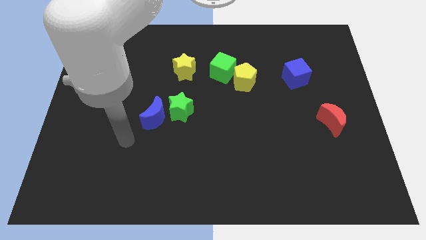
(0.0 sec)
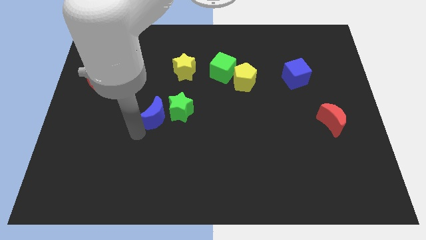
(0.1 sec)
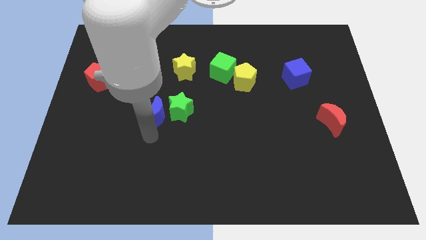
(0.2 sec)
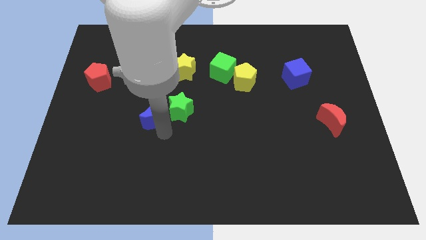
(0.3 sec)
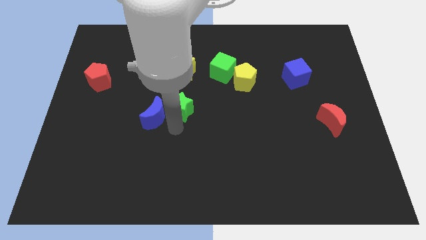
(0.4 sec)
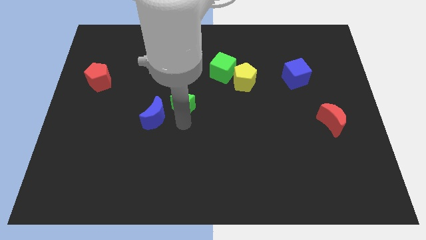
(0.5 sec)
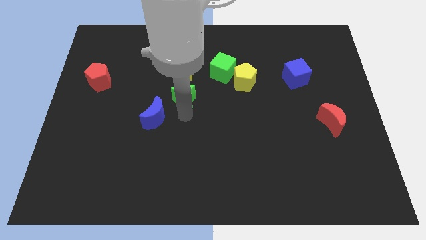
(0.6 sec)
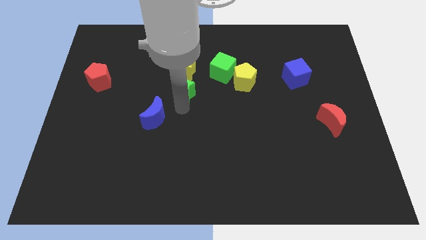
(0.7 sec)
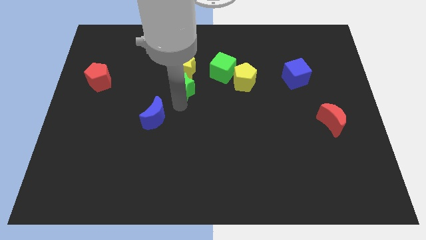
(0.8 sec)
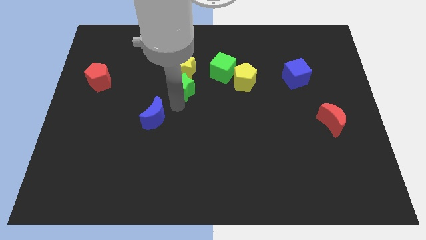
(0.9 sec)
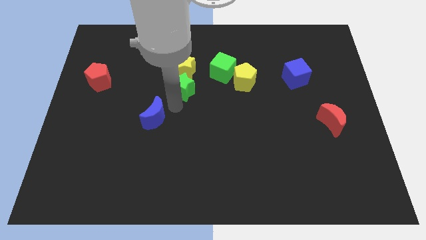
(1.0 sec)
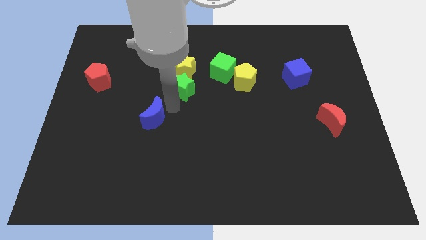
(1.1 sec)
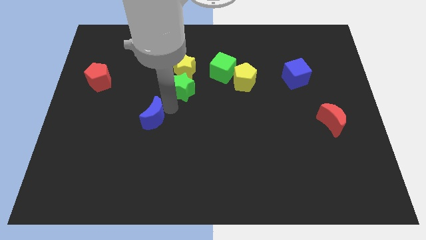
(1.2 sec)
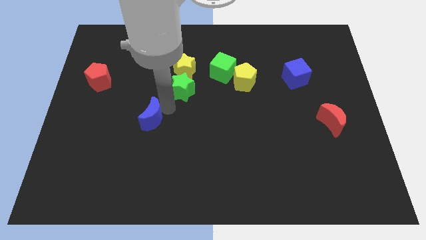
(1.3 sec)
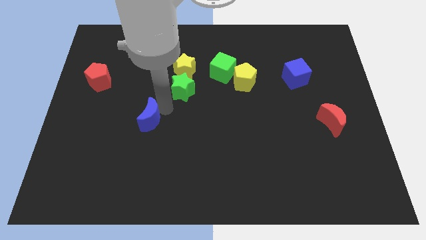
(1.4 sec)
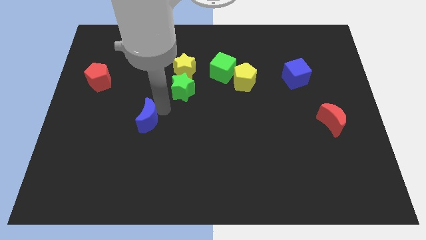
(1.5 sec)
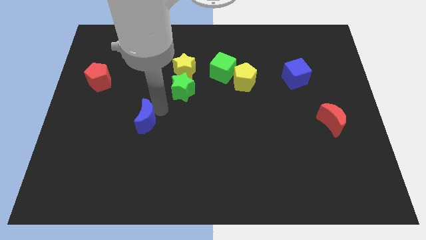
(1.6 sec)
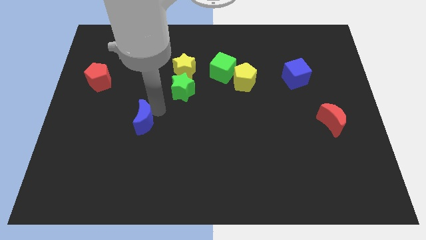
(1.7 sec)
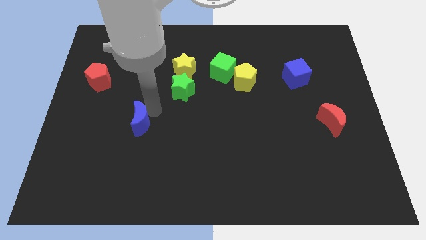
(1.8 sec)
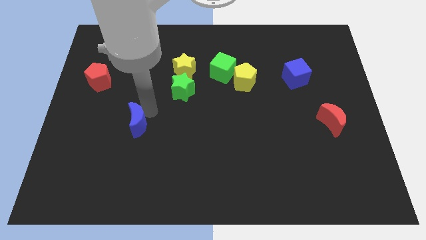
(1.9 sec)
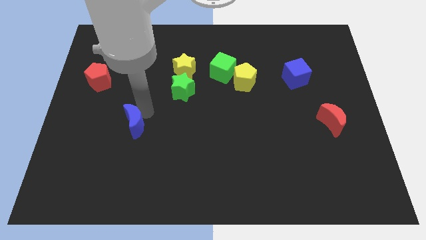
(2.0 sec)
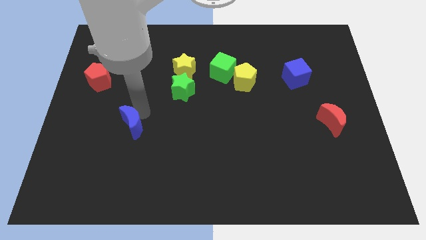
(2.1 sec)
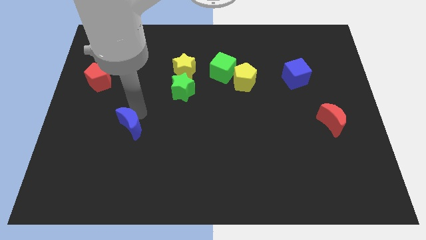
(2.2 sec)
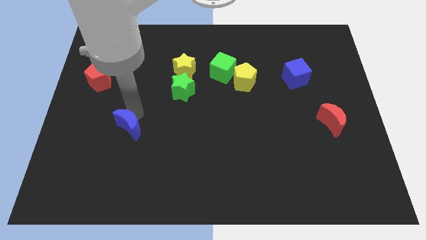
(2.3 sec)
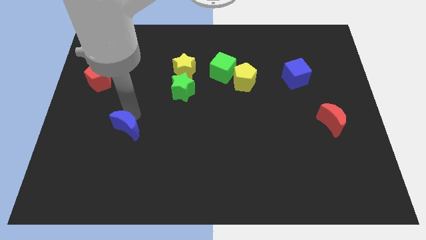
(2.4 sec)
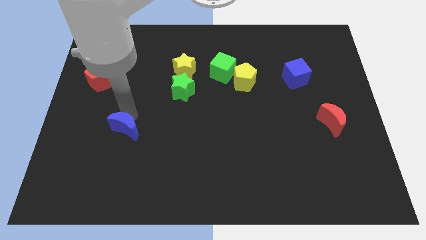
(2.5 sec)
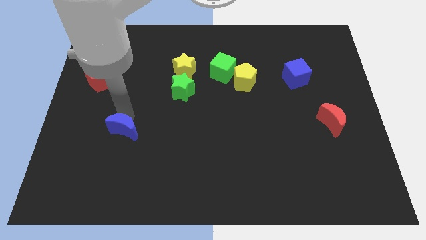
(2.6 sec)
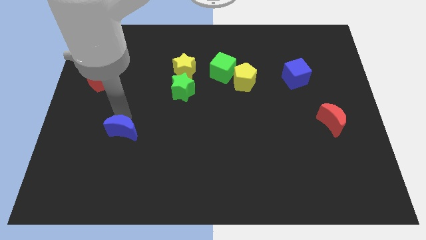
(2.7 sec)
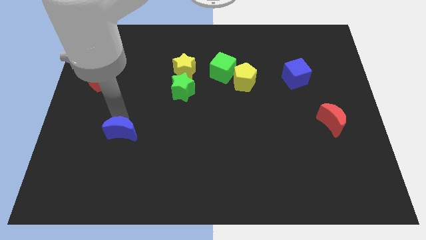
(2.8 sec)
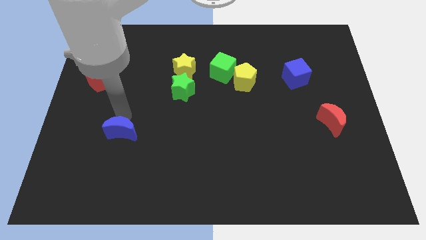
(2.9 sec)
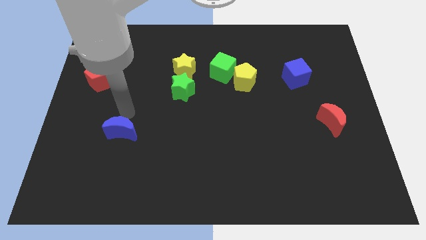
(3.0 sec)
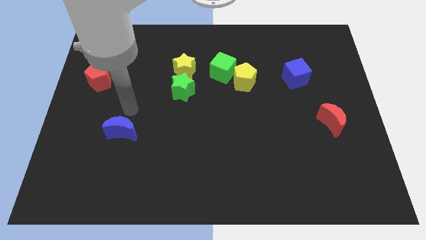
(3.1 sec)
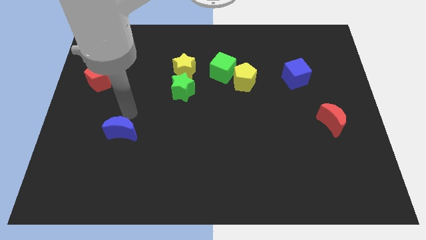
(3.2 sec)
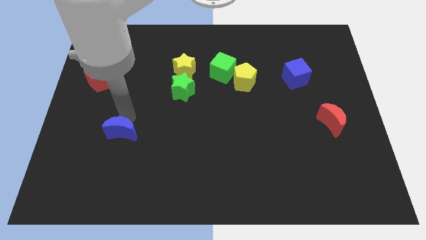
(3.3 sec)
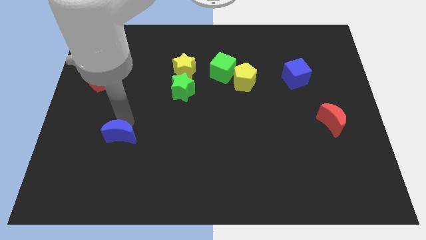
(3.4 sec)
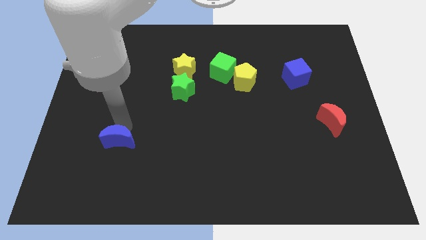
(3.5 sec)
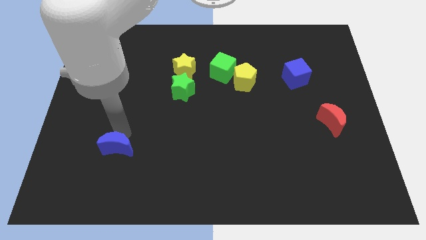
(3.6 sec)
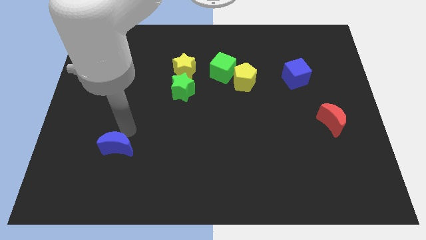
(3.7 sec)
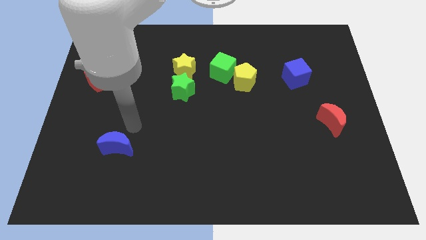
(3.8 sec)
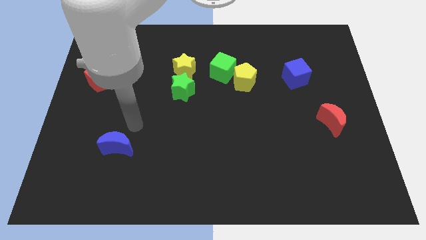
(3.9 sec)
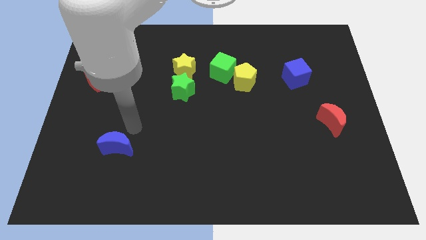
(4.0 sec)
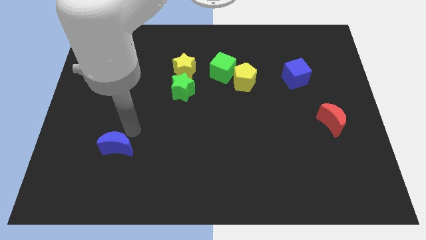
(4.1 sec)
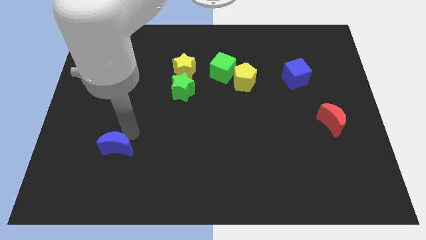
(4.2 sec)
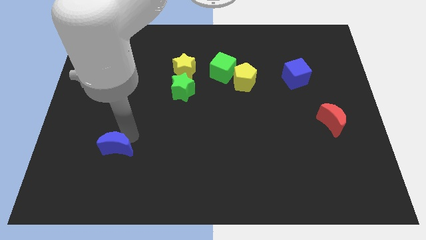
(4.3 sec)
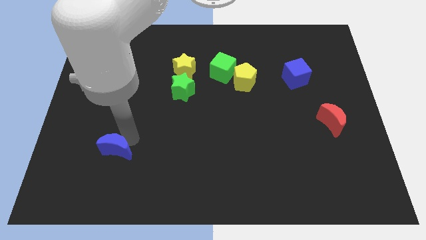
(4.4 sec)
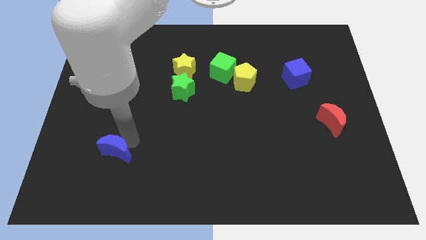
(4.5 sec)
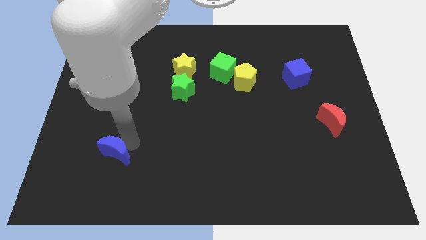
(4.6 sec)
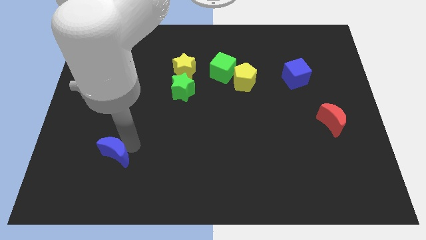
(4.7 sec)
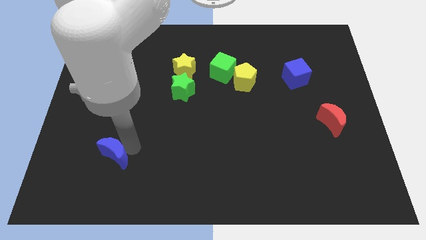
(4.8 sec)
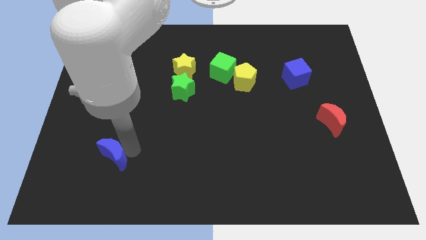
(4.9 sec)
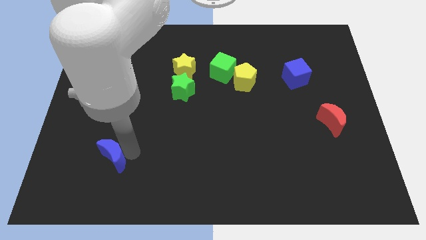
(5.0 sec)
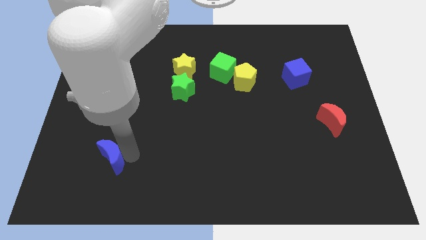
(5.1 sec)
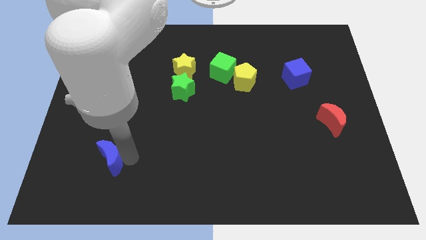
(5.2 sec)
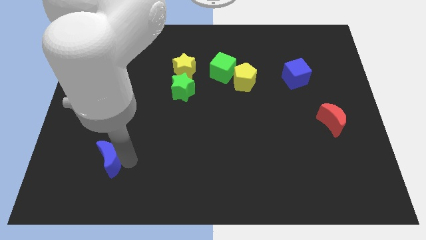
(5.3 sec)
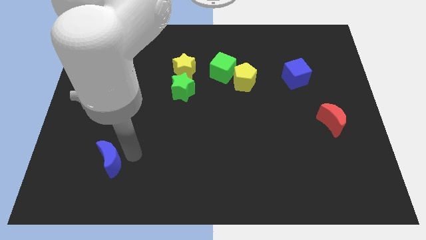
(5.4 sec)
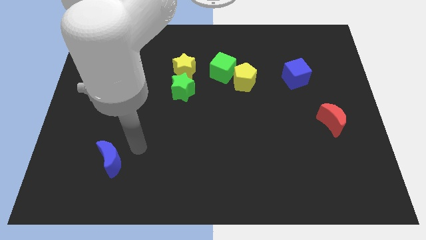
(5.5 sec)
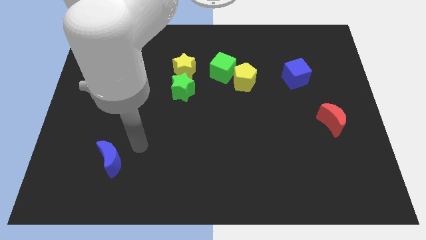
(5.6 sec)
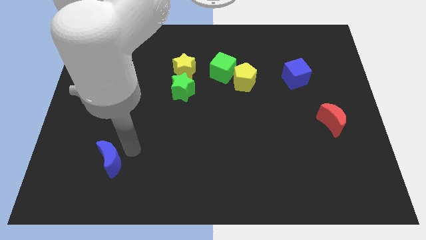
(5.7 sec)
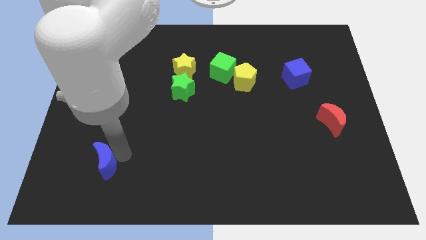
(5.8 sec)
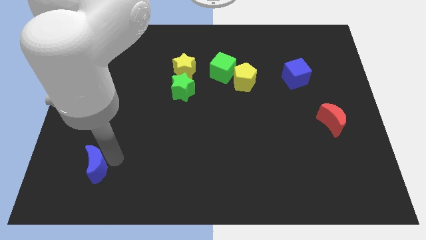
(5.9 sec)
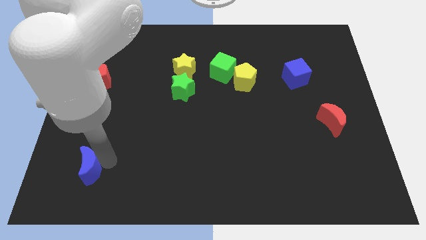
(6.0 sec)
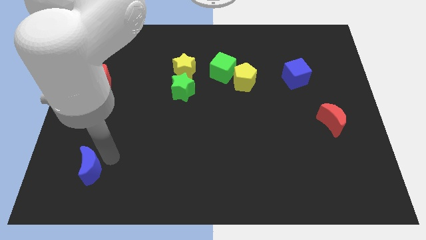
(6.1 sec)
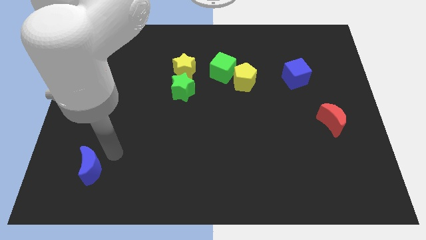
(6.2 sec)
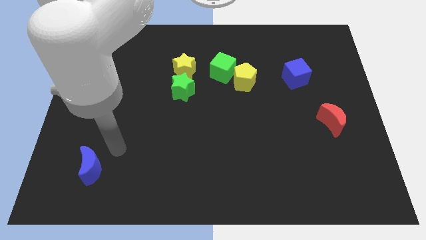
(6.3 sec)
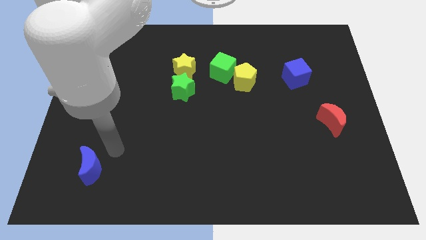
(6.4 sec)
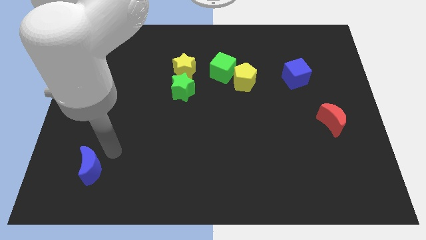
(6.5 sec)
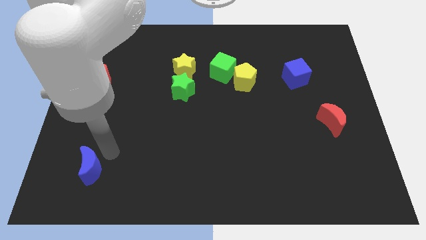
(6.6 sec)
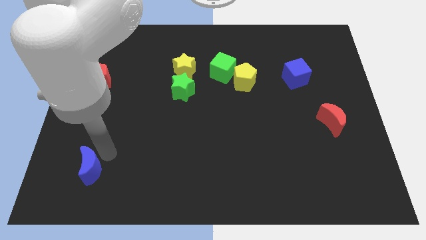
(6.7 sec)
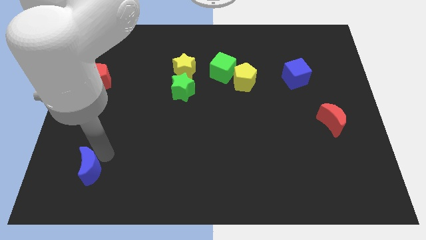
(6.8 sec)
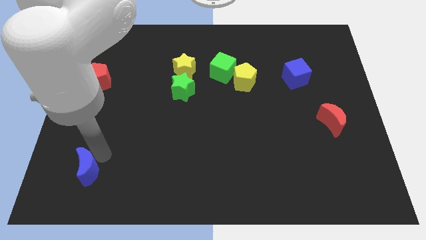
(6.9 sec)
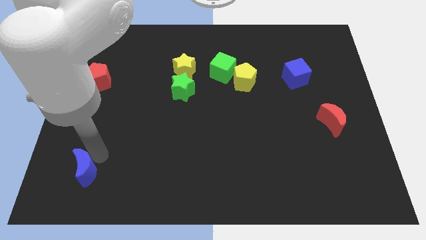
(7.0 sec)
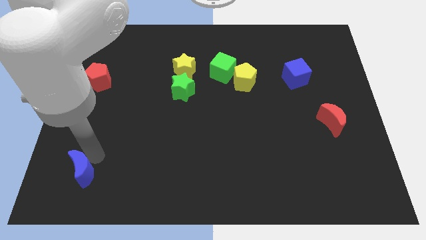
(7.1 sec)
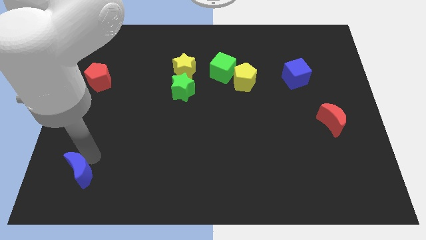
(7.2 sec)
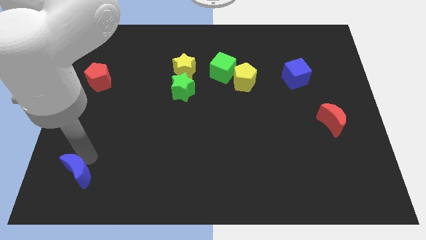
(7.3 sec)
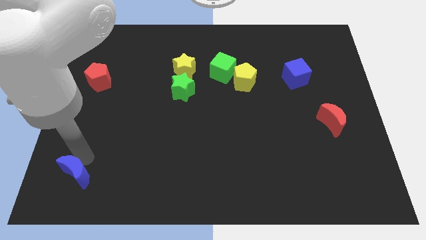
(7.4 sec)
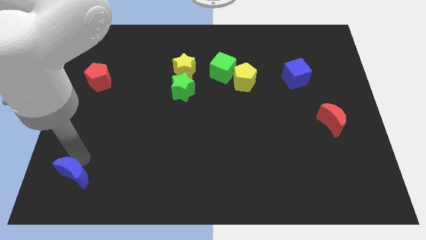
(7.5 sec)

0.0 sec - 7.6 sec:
push the blue moon to the bottom left of the board
